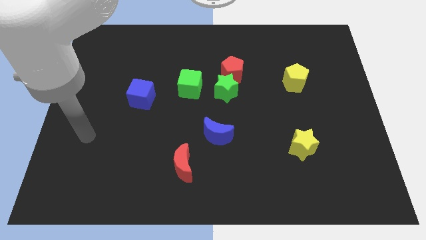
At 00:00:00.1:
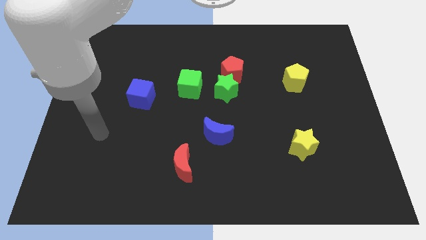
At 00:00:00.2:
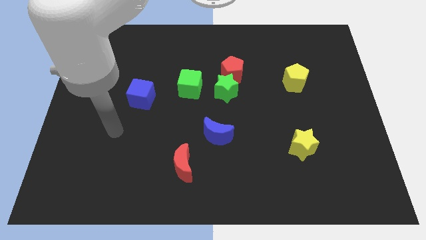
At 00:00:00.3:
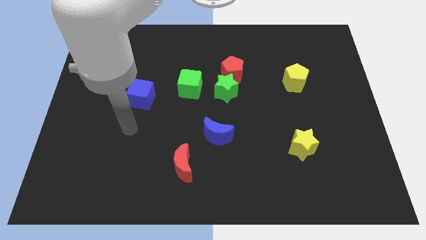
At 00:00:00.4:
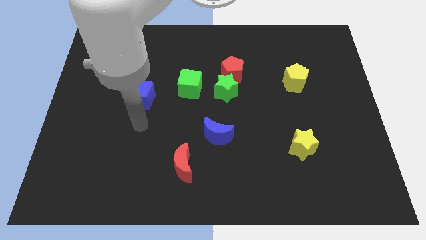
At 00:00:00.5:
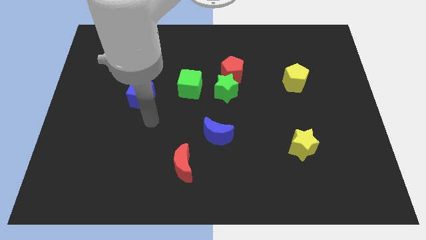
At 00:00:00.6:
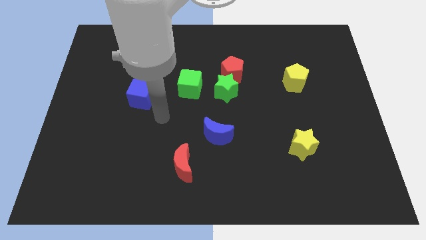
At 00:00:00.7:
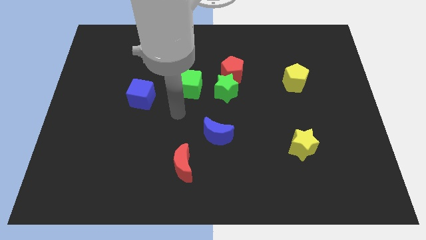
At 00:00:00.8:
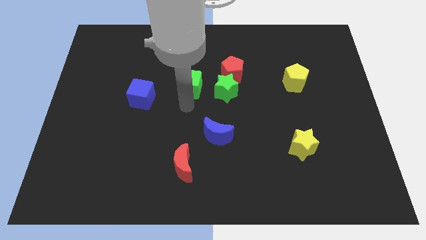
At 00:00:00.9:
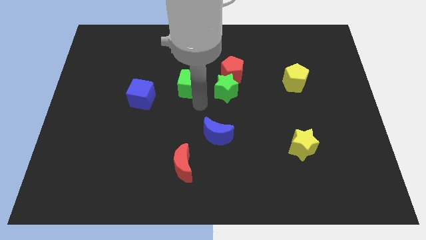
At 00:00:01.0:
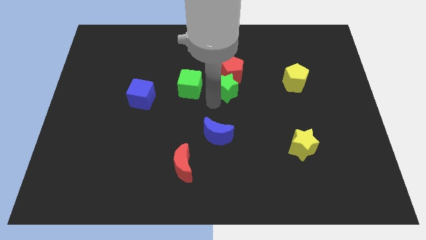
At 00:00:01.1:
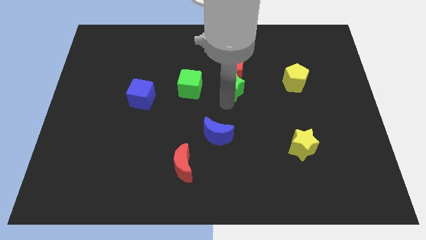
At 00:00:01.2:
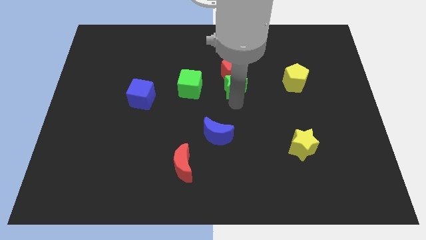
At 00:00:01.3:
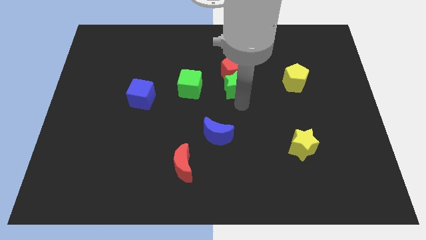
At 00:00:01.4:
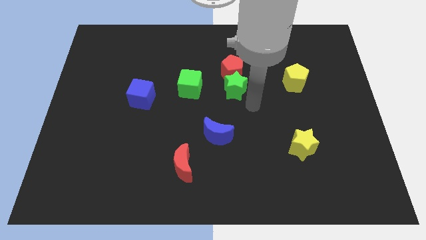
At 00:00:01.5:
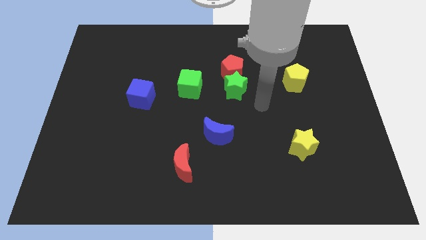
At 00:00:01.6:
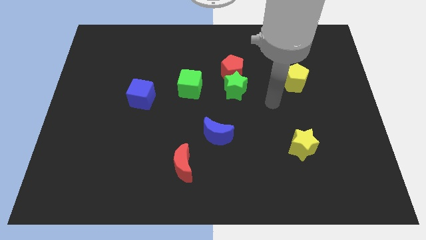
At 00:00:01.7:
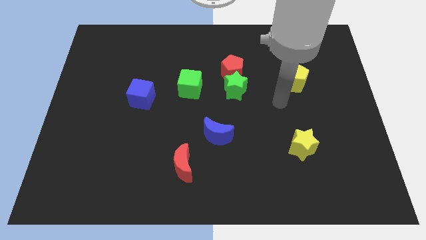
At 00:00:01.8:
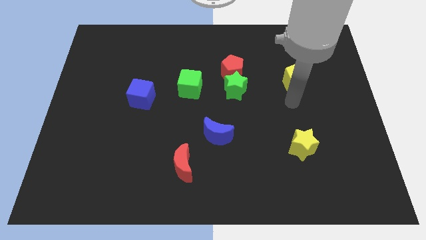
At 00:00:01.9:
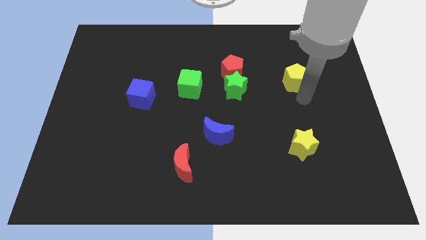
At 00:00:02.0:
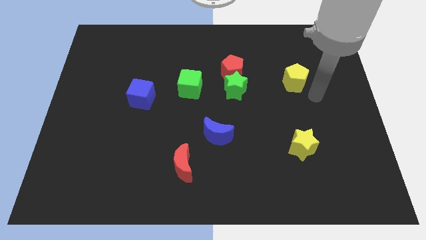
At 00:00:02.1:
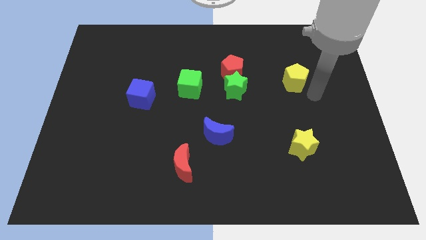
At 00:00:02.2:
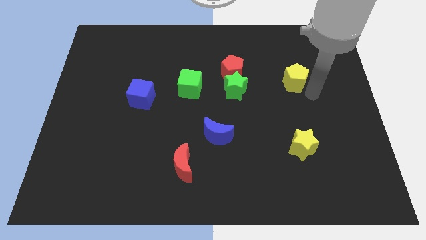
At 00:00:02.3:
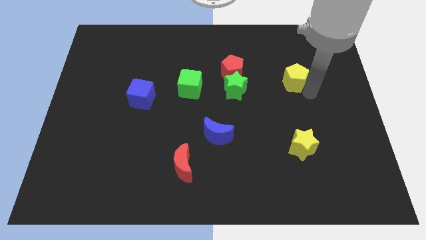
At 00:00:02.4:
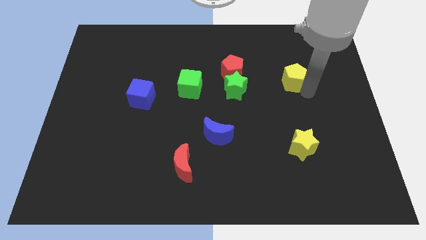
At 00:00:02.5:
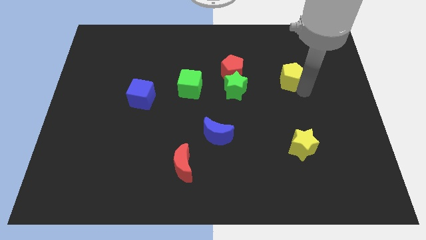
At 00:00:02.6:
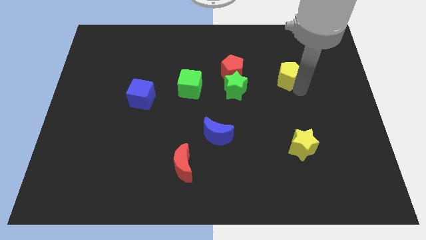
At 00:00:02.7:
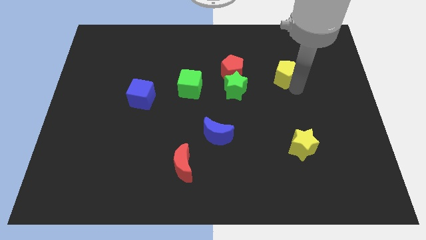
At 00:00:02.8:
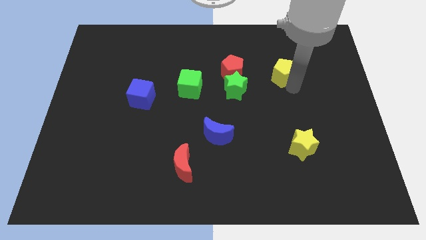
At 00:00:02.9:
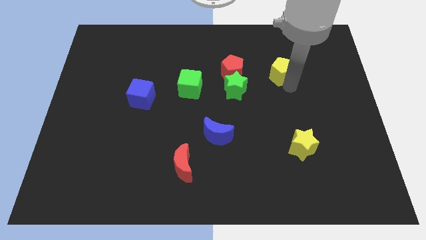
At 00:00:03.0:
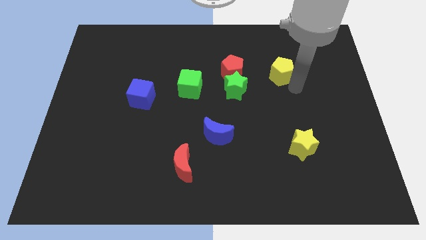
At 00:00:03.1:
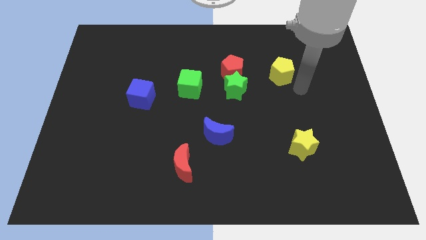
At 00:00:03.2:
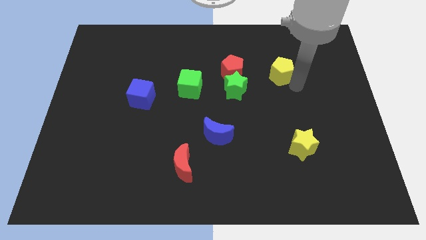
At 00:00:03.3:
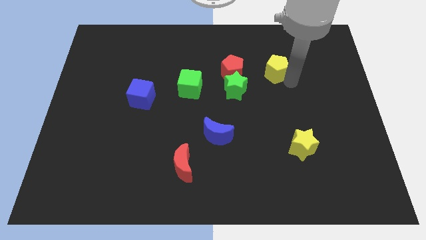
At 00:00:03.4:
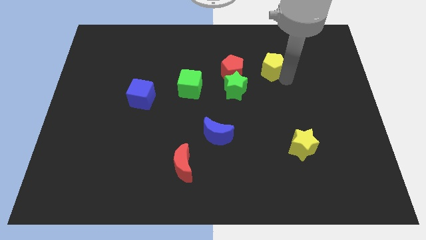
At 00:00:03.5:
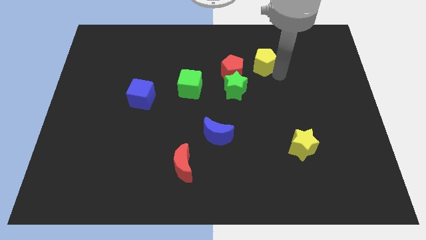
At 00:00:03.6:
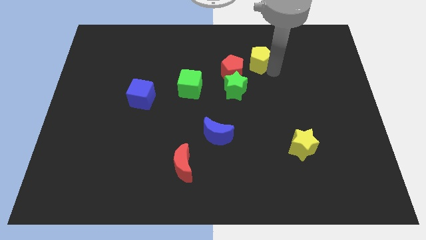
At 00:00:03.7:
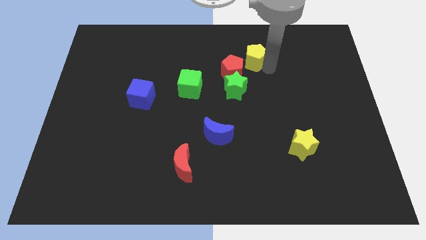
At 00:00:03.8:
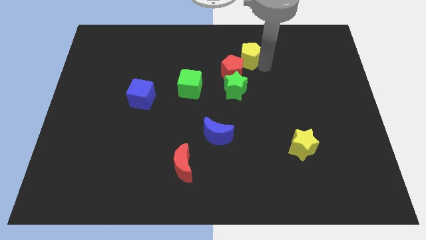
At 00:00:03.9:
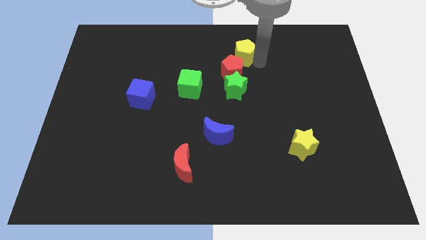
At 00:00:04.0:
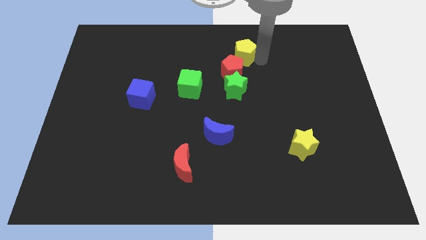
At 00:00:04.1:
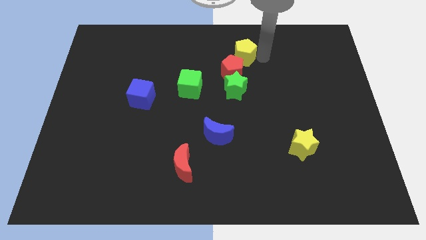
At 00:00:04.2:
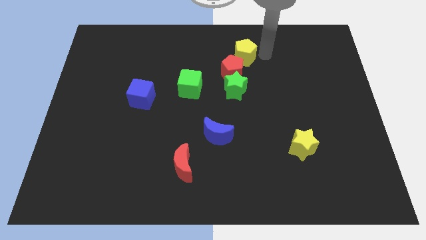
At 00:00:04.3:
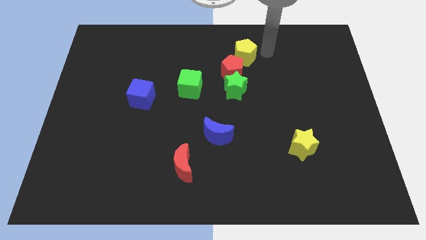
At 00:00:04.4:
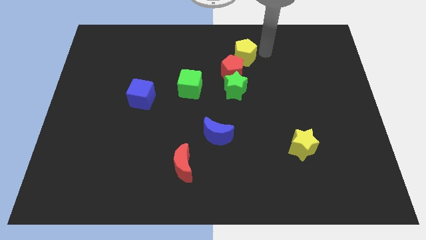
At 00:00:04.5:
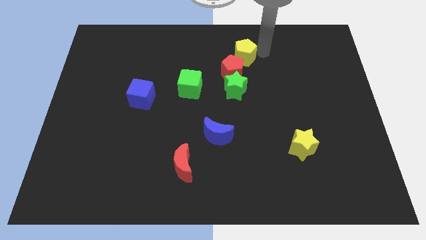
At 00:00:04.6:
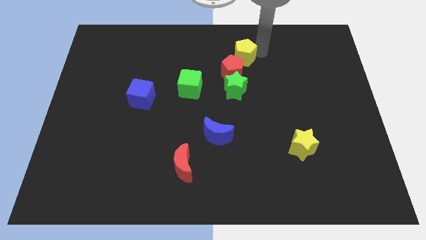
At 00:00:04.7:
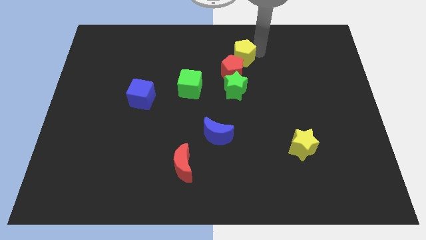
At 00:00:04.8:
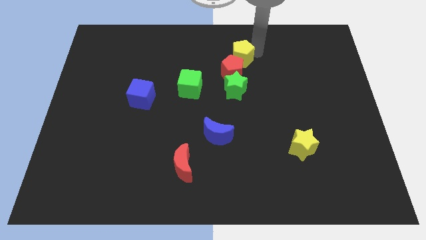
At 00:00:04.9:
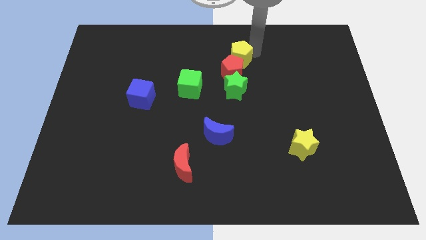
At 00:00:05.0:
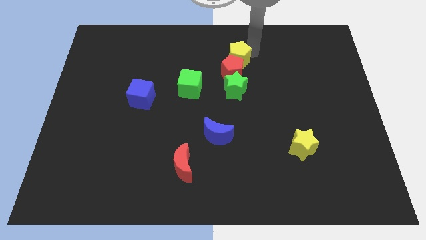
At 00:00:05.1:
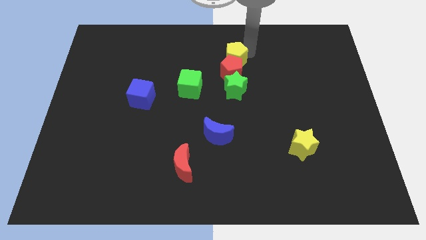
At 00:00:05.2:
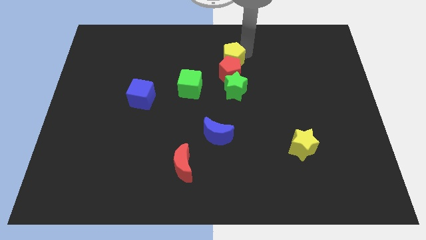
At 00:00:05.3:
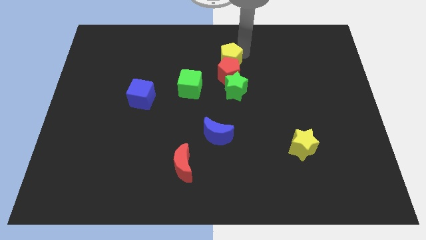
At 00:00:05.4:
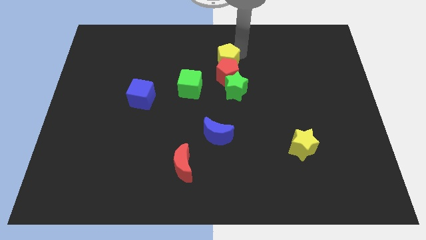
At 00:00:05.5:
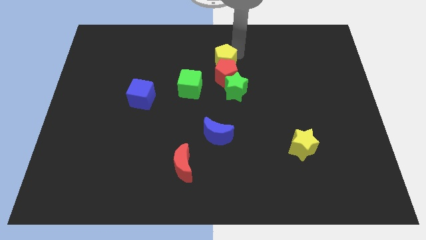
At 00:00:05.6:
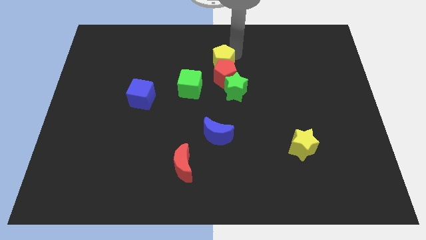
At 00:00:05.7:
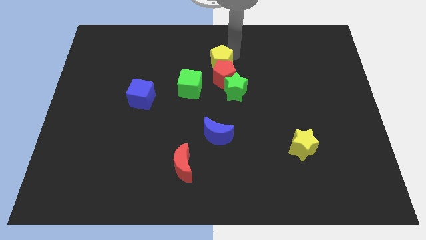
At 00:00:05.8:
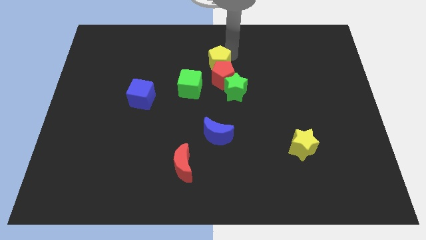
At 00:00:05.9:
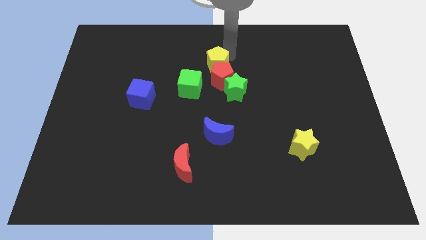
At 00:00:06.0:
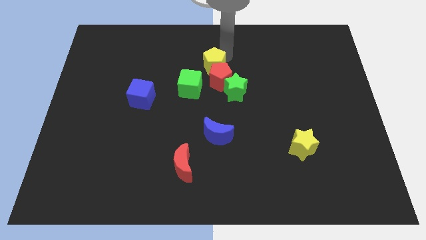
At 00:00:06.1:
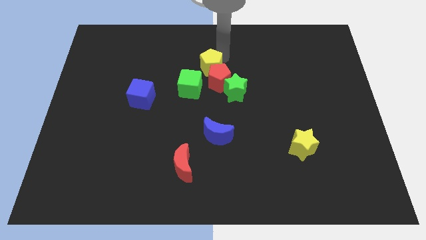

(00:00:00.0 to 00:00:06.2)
move the yellow pentagon left

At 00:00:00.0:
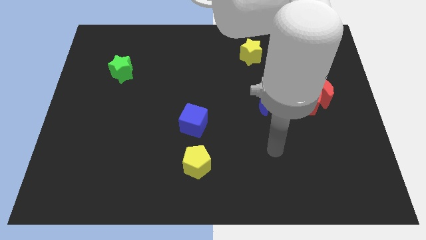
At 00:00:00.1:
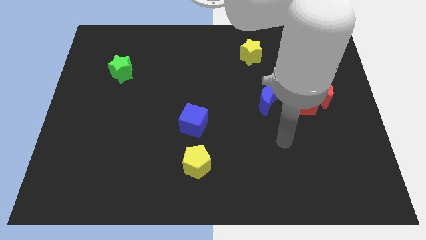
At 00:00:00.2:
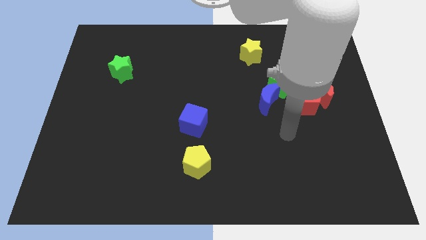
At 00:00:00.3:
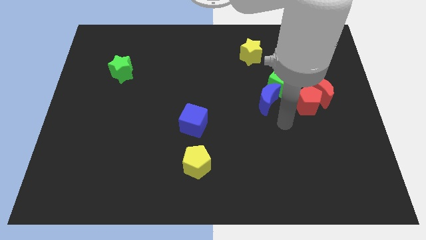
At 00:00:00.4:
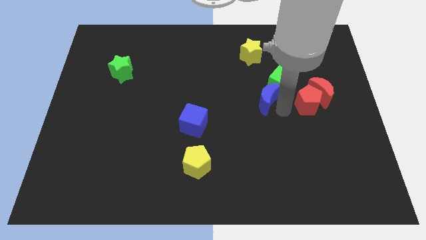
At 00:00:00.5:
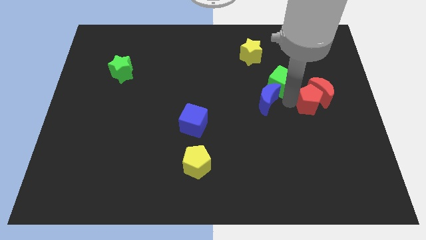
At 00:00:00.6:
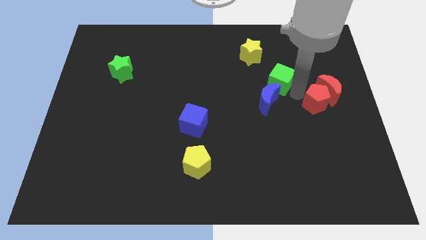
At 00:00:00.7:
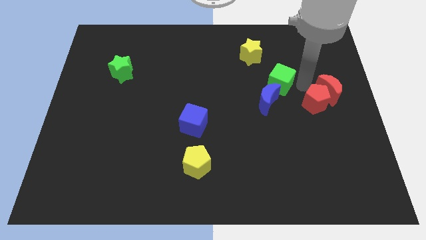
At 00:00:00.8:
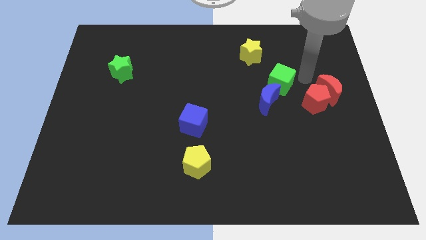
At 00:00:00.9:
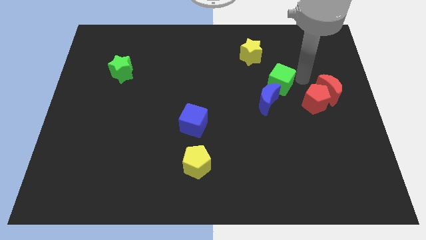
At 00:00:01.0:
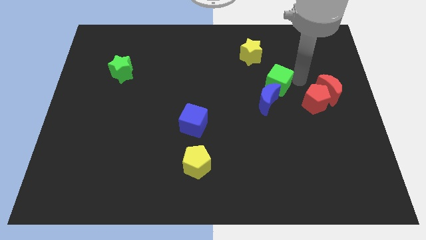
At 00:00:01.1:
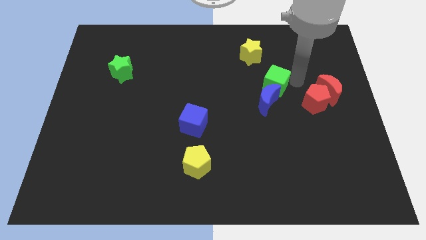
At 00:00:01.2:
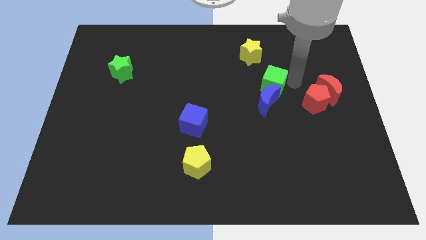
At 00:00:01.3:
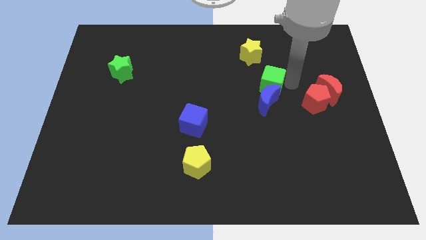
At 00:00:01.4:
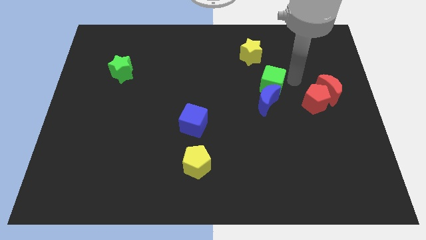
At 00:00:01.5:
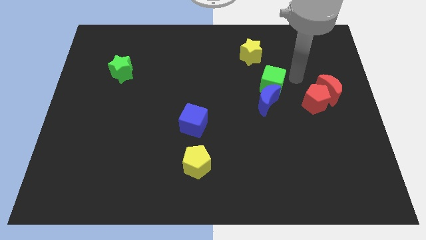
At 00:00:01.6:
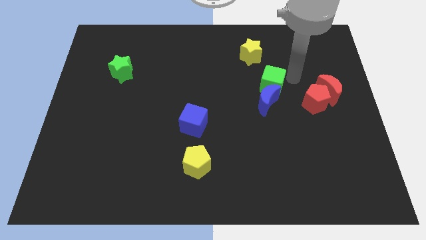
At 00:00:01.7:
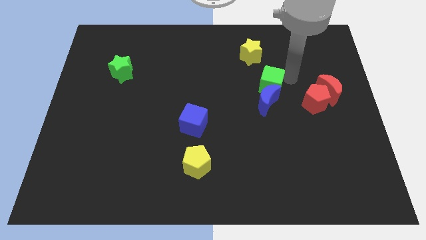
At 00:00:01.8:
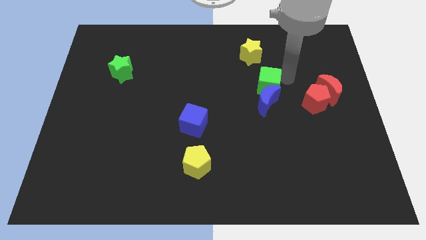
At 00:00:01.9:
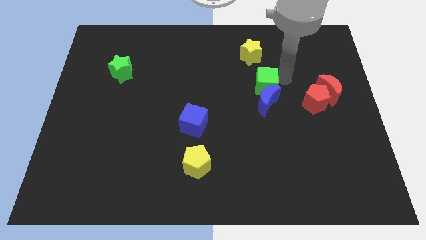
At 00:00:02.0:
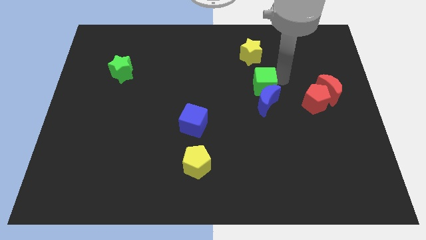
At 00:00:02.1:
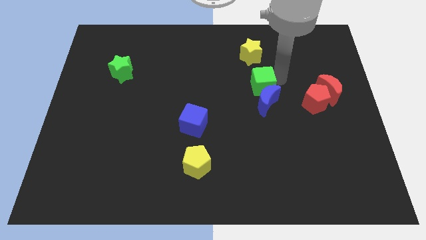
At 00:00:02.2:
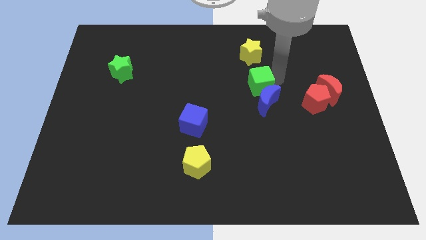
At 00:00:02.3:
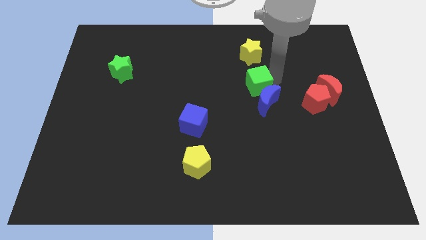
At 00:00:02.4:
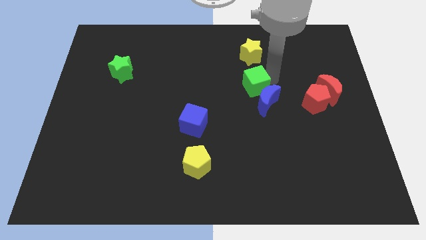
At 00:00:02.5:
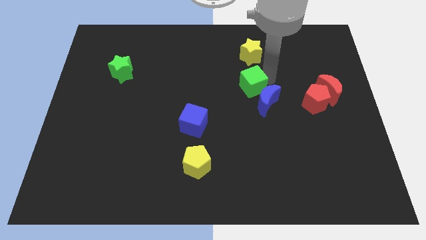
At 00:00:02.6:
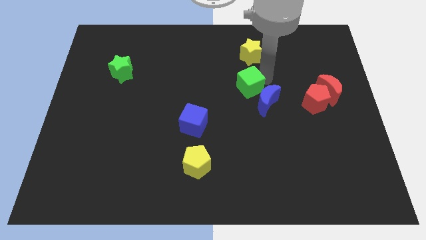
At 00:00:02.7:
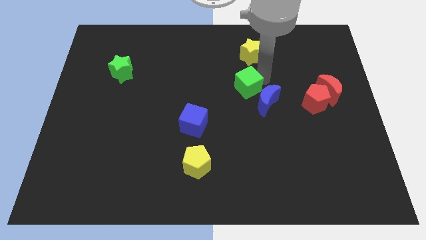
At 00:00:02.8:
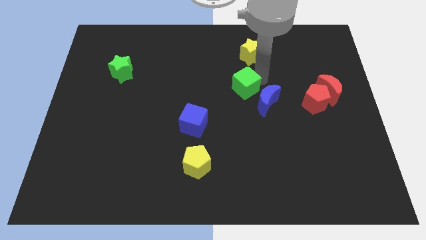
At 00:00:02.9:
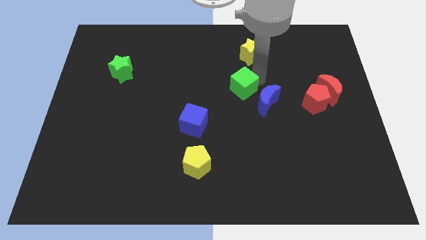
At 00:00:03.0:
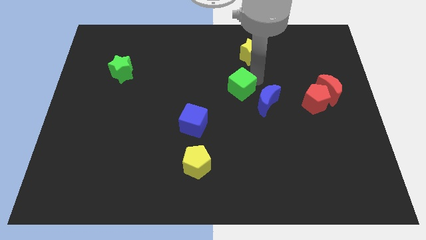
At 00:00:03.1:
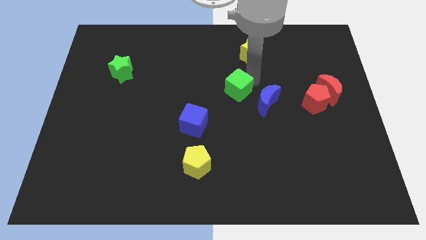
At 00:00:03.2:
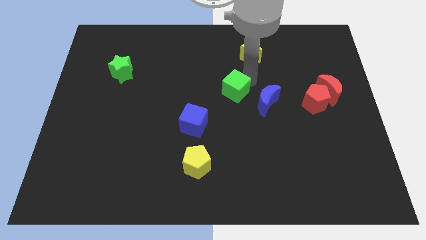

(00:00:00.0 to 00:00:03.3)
move the green cube down and then left somewhat
